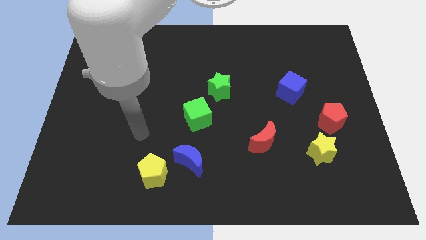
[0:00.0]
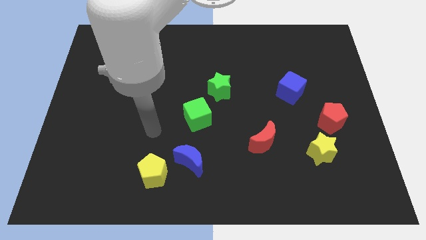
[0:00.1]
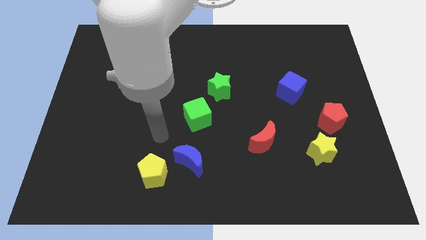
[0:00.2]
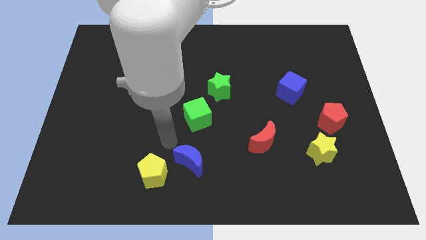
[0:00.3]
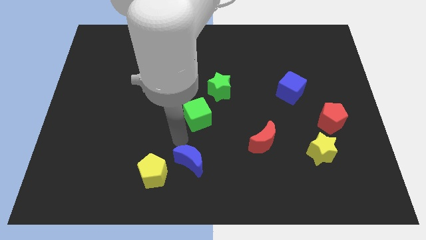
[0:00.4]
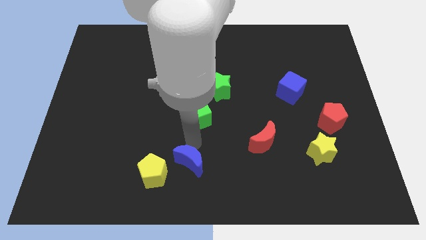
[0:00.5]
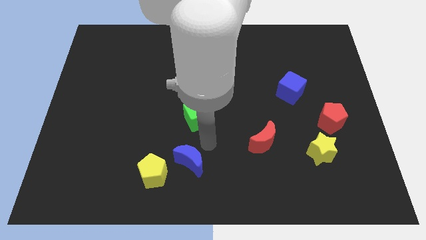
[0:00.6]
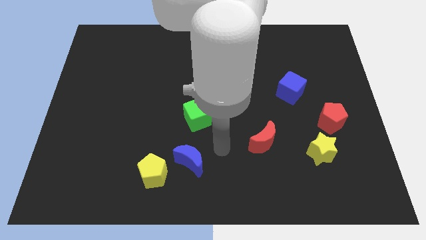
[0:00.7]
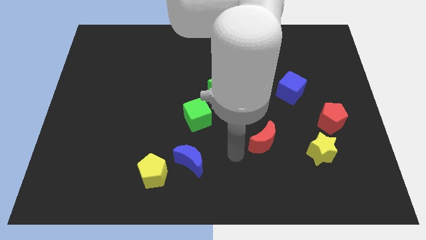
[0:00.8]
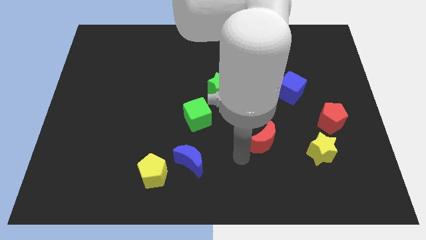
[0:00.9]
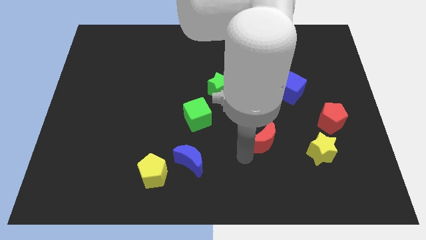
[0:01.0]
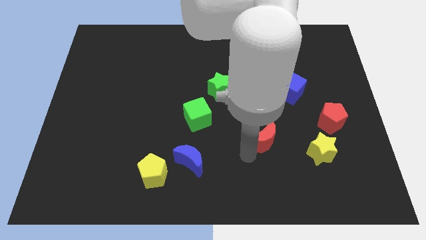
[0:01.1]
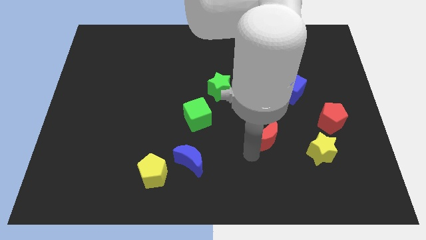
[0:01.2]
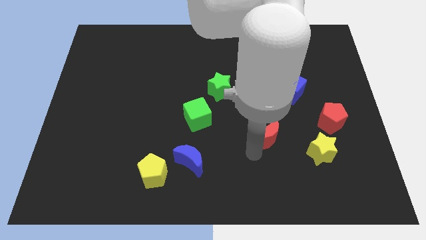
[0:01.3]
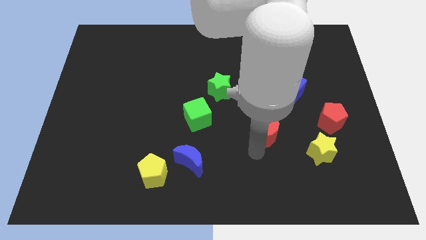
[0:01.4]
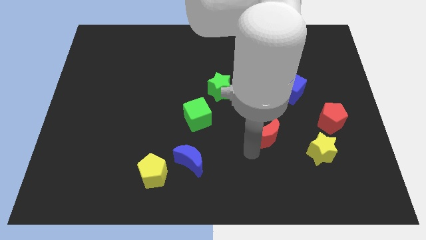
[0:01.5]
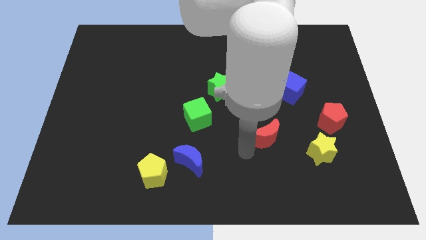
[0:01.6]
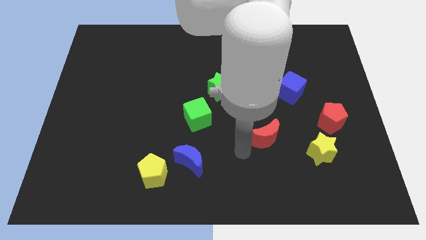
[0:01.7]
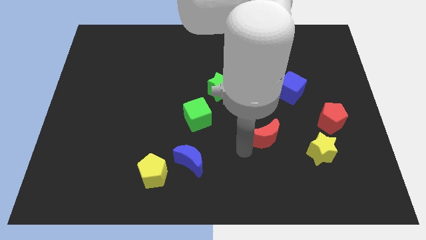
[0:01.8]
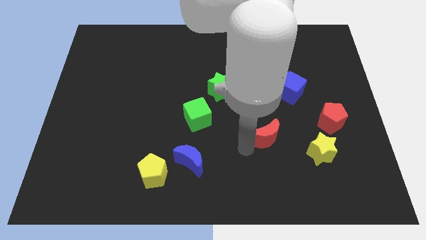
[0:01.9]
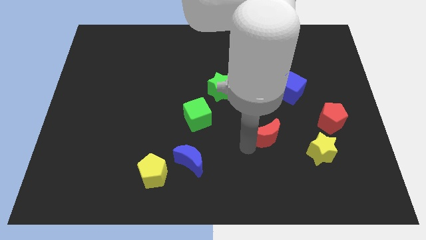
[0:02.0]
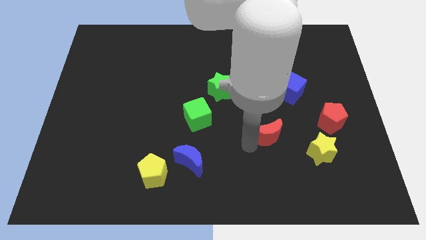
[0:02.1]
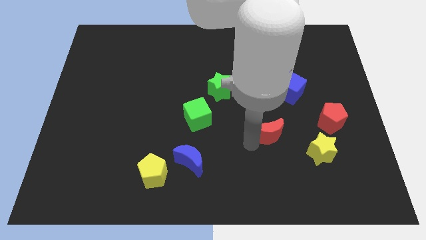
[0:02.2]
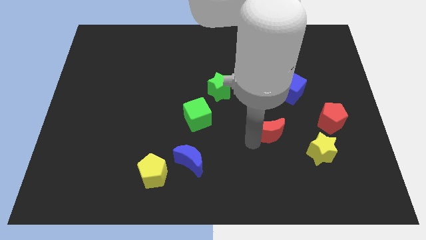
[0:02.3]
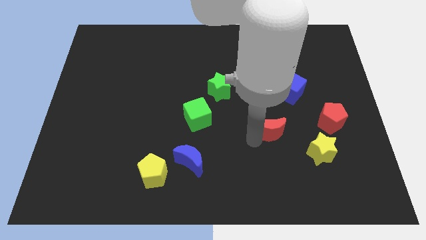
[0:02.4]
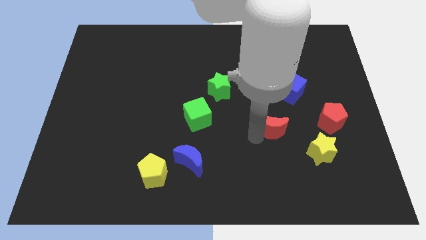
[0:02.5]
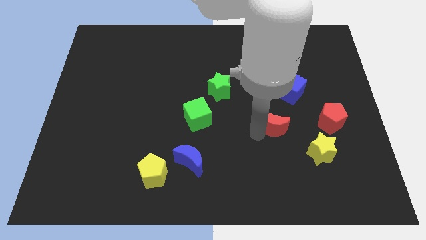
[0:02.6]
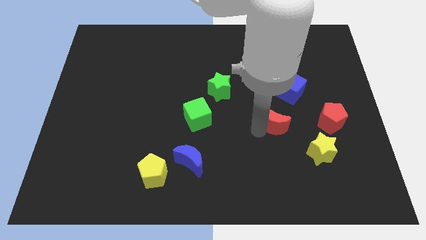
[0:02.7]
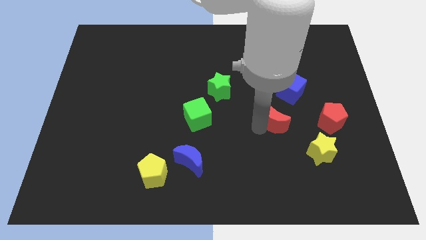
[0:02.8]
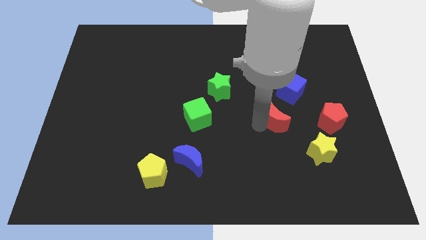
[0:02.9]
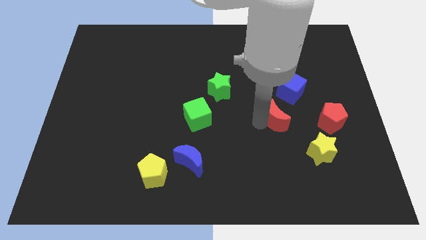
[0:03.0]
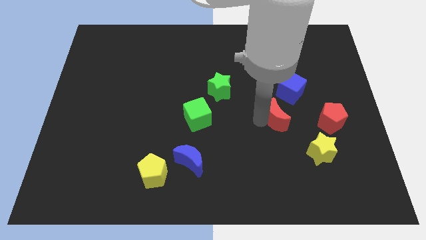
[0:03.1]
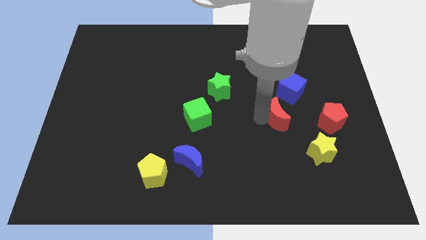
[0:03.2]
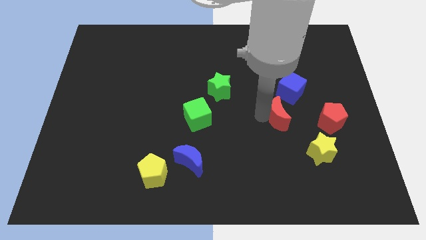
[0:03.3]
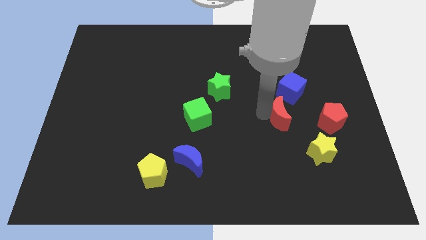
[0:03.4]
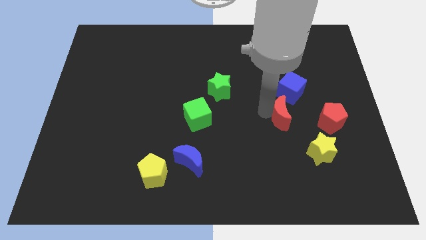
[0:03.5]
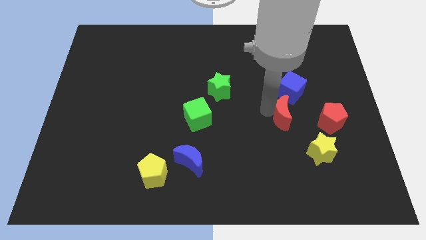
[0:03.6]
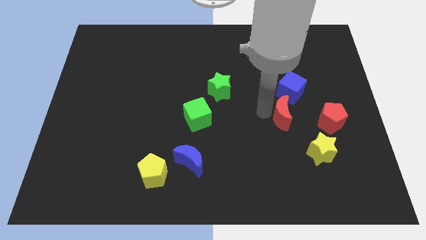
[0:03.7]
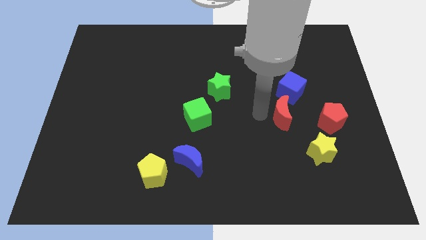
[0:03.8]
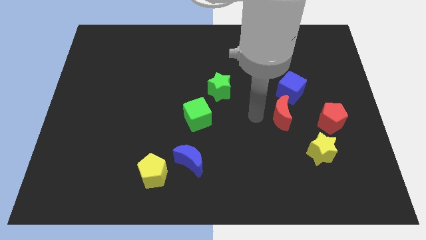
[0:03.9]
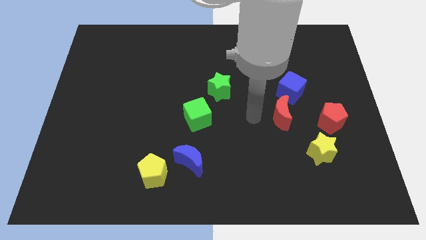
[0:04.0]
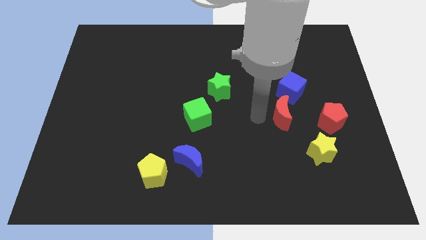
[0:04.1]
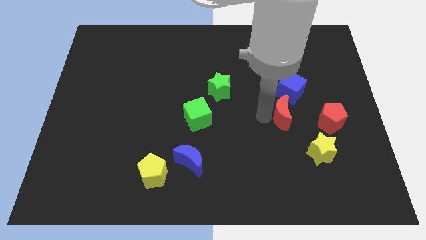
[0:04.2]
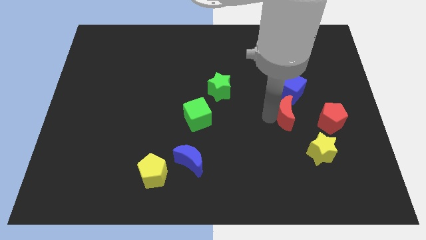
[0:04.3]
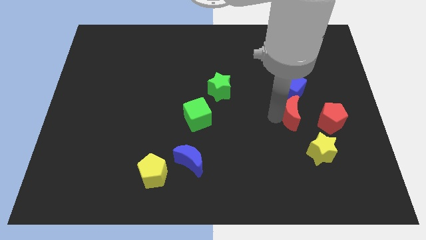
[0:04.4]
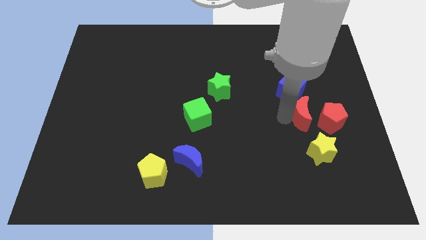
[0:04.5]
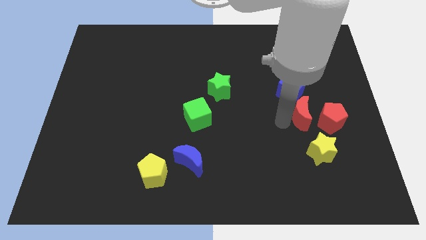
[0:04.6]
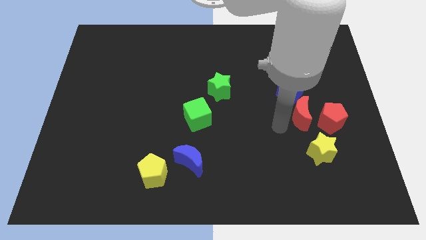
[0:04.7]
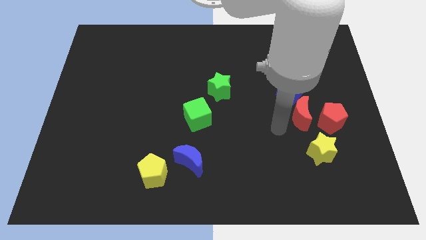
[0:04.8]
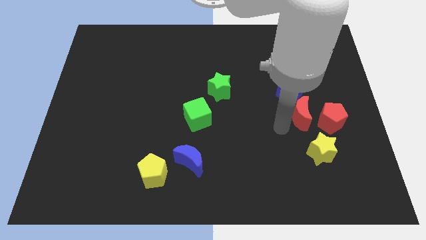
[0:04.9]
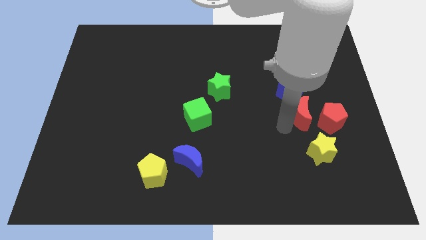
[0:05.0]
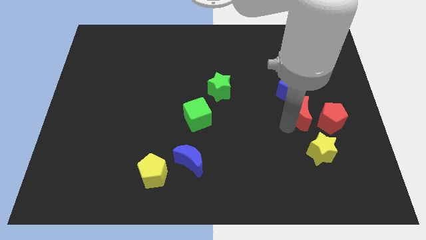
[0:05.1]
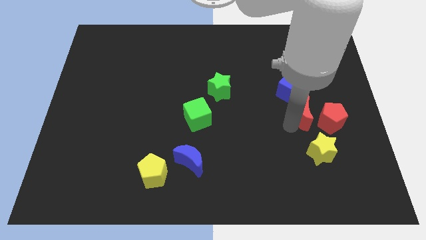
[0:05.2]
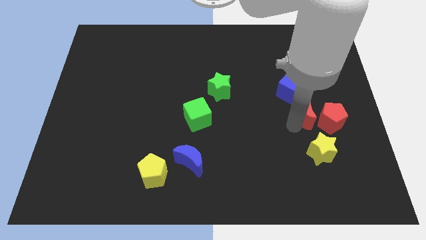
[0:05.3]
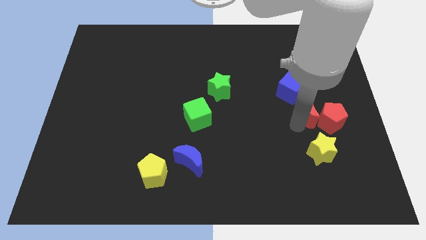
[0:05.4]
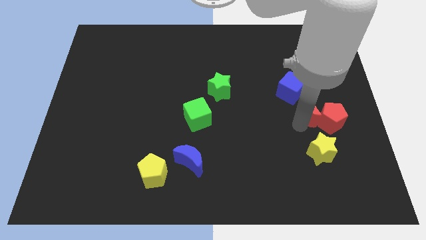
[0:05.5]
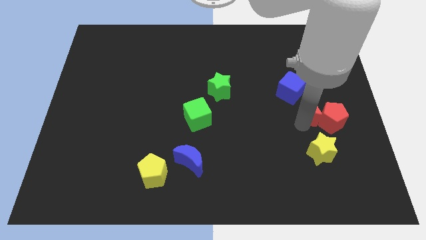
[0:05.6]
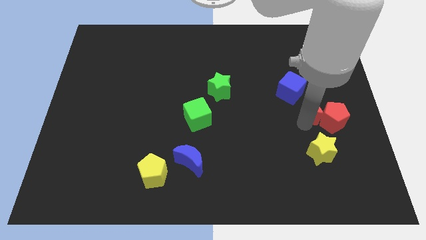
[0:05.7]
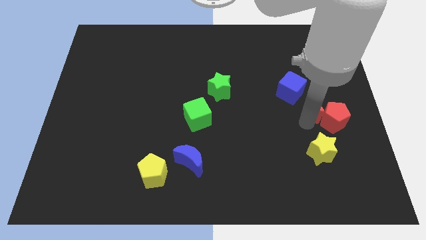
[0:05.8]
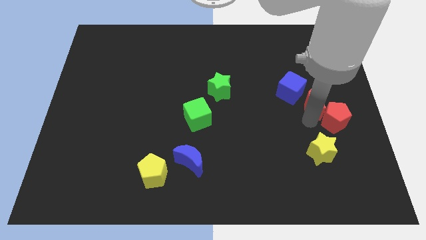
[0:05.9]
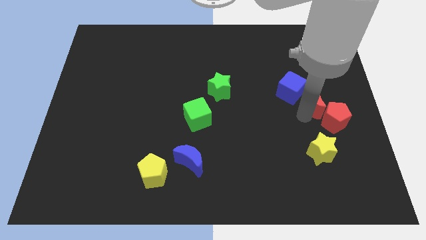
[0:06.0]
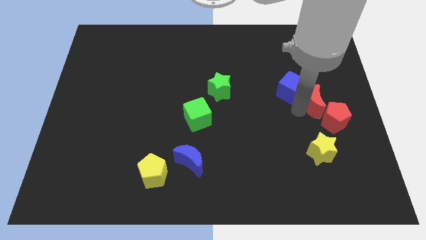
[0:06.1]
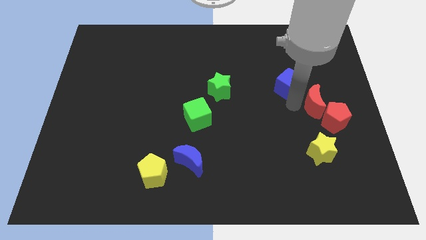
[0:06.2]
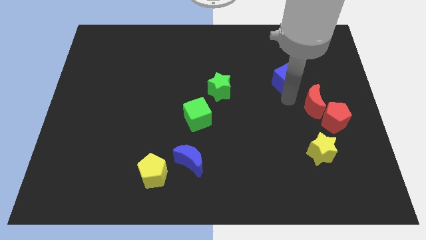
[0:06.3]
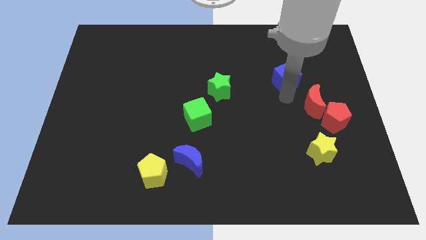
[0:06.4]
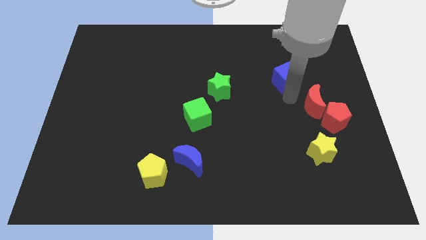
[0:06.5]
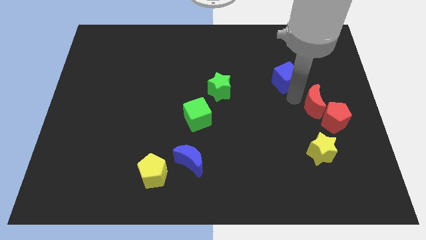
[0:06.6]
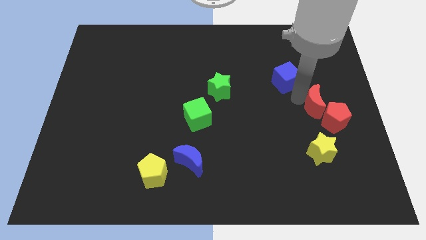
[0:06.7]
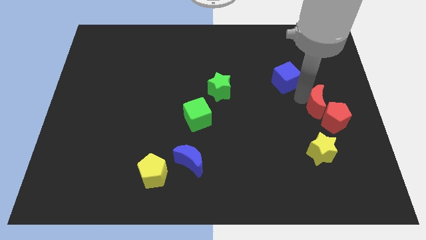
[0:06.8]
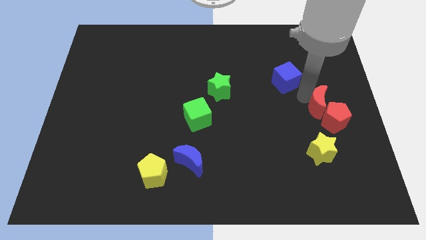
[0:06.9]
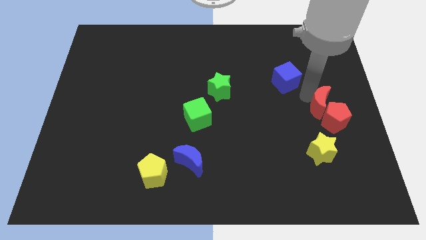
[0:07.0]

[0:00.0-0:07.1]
push the red moon to the right side

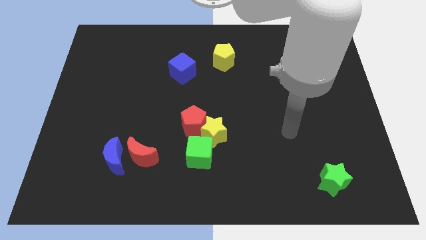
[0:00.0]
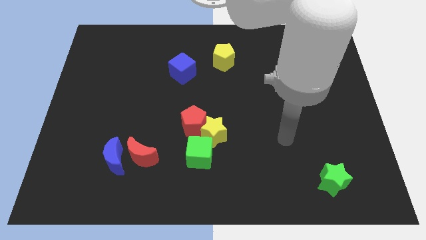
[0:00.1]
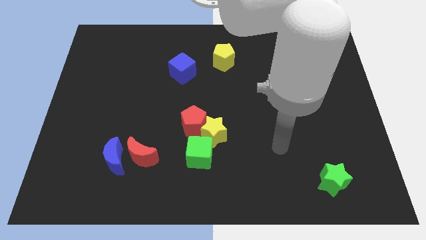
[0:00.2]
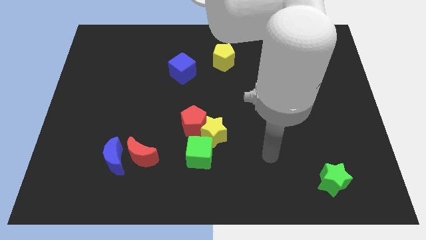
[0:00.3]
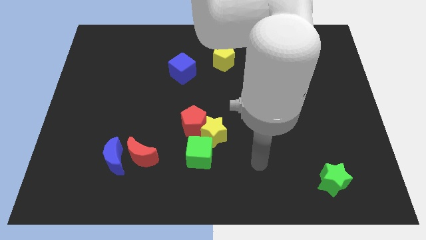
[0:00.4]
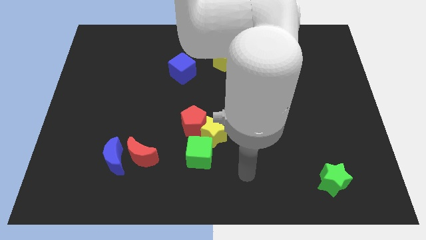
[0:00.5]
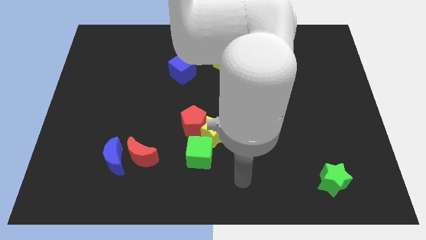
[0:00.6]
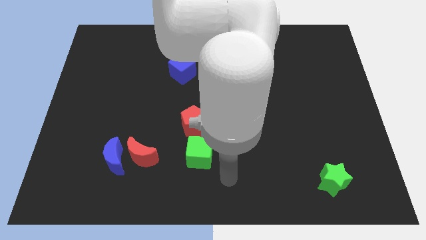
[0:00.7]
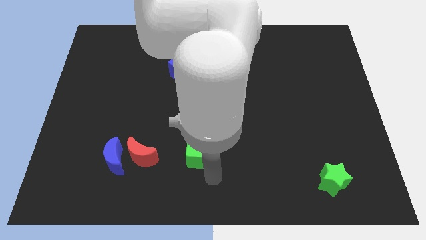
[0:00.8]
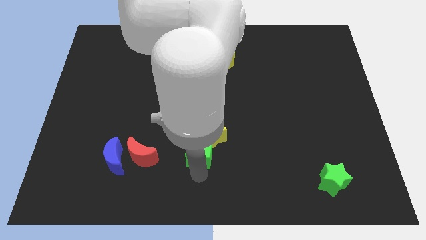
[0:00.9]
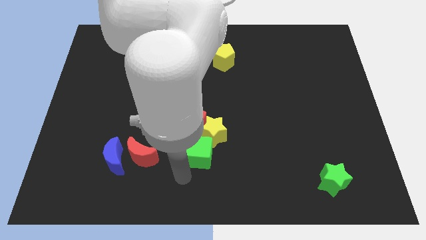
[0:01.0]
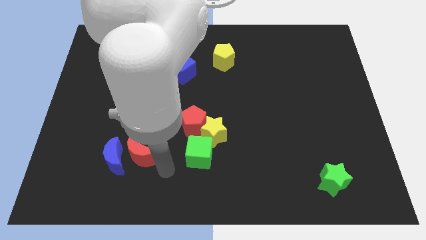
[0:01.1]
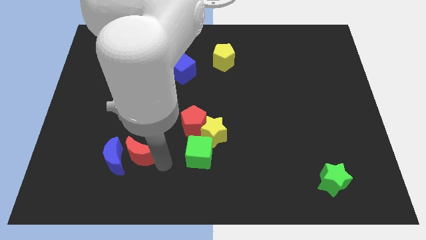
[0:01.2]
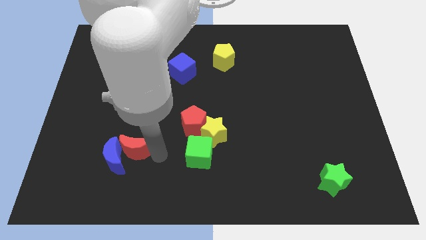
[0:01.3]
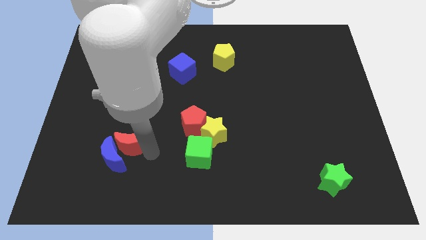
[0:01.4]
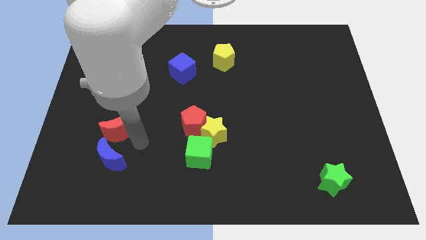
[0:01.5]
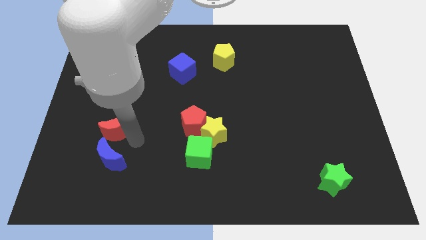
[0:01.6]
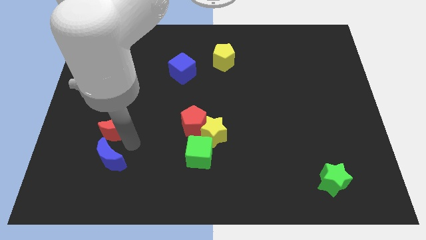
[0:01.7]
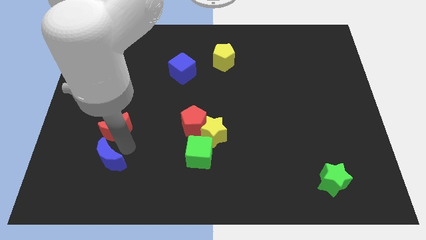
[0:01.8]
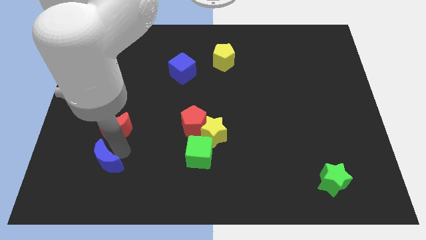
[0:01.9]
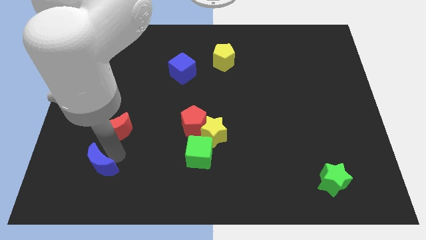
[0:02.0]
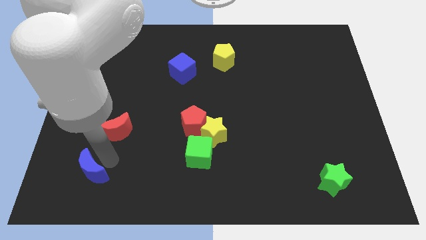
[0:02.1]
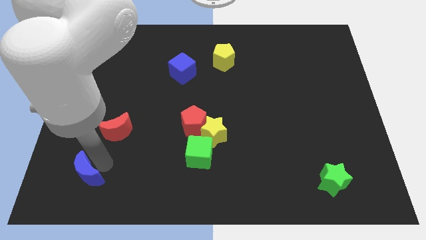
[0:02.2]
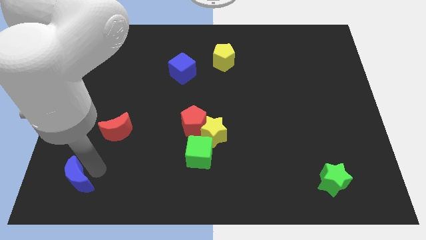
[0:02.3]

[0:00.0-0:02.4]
move the blue moon to the bottom left corner
